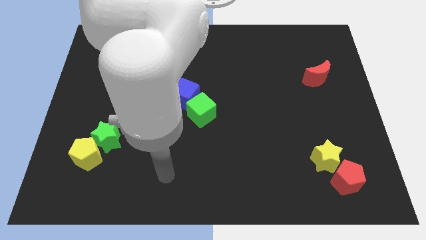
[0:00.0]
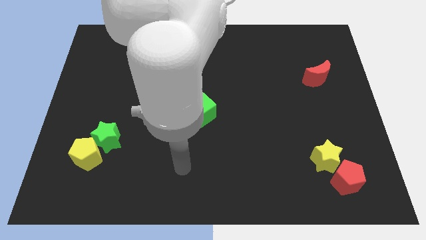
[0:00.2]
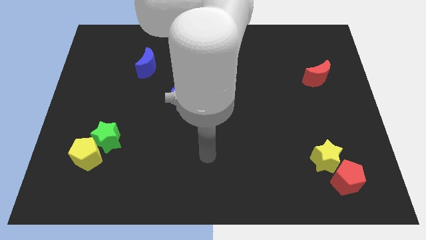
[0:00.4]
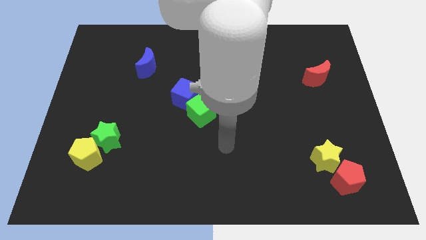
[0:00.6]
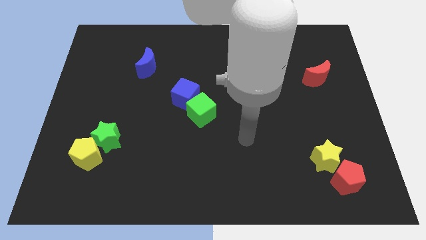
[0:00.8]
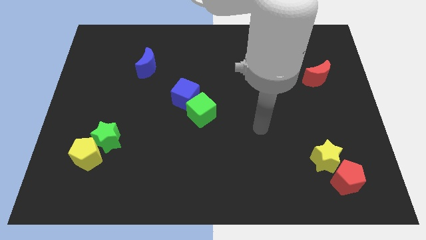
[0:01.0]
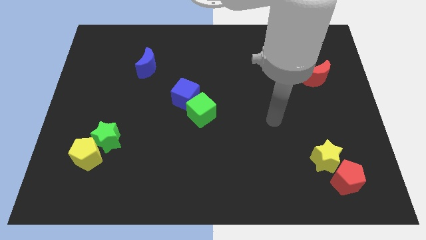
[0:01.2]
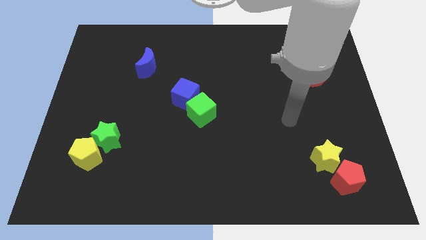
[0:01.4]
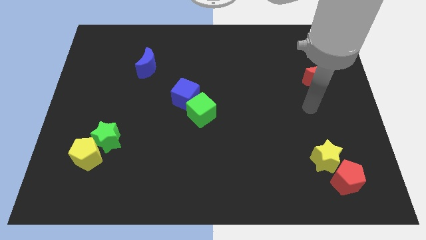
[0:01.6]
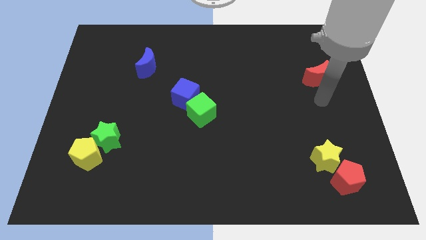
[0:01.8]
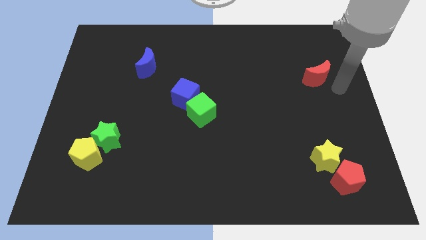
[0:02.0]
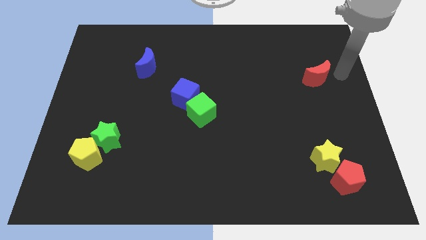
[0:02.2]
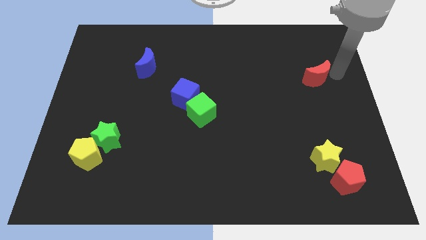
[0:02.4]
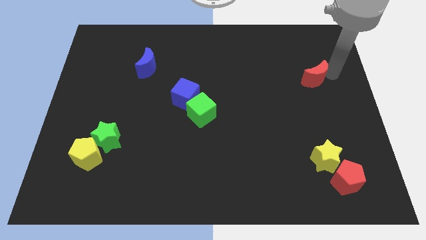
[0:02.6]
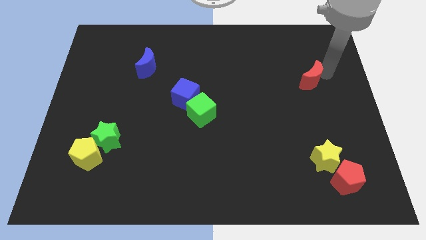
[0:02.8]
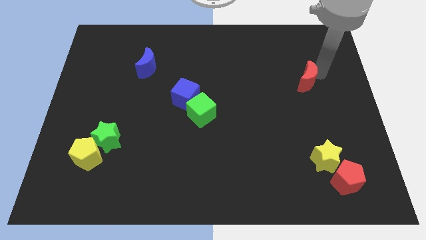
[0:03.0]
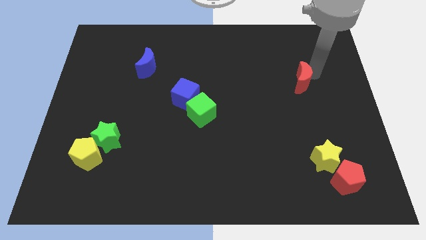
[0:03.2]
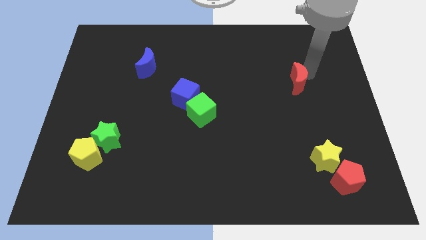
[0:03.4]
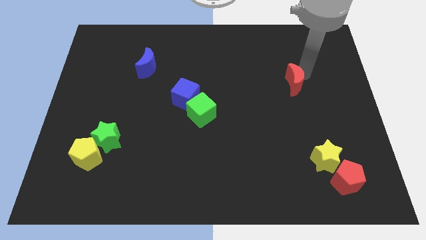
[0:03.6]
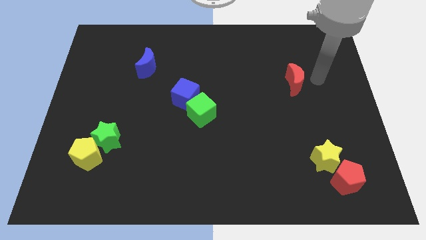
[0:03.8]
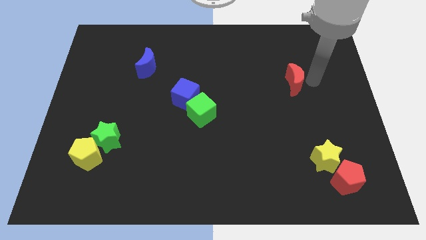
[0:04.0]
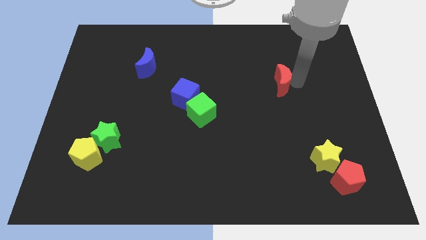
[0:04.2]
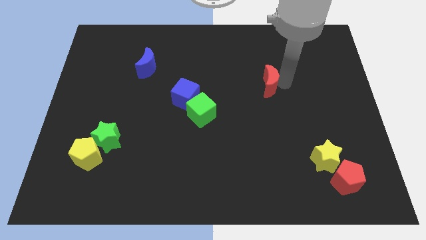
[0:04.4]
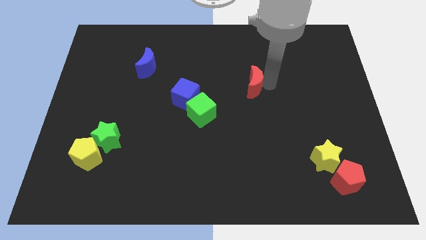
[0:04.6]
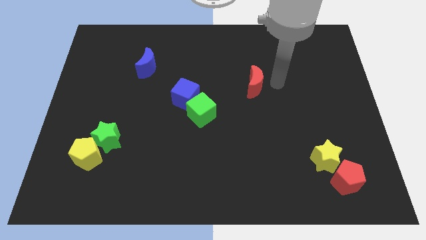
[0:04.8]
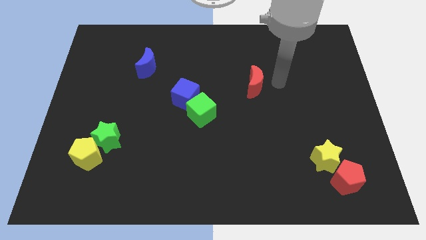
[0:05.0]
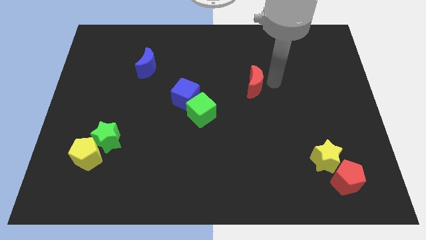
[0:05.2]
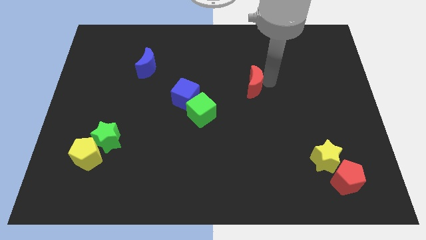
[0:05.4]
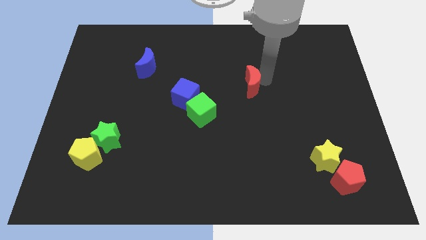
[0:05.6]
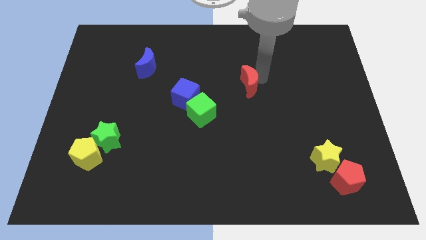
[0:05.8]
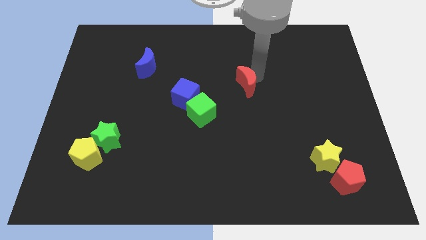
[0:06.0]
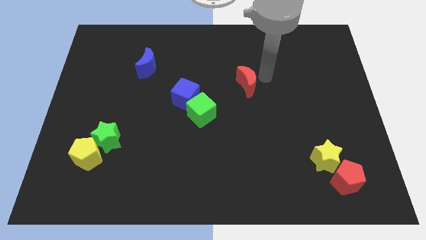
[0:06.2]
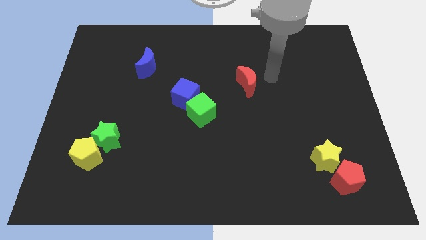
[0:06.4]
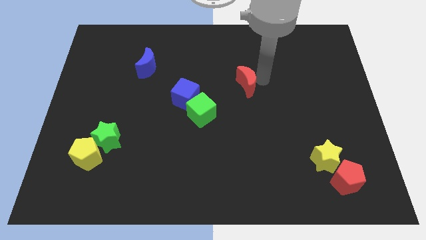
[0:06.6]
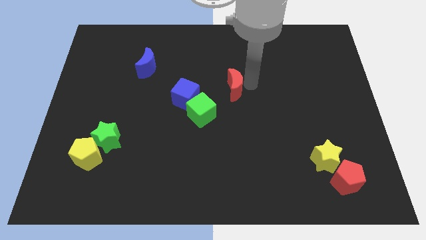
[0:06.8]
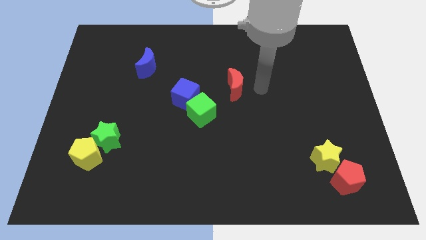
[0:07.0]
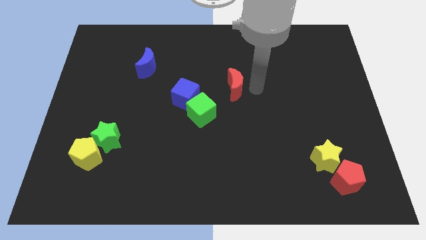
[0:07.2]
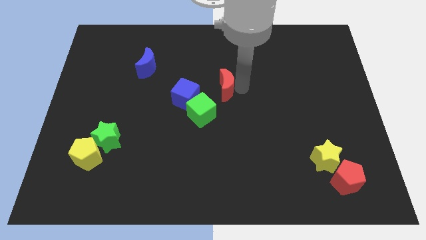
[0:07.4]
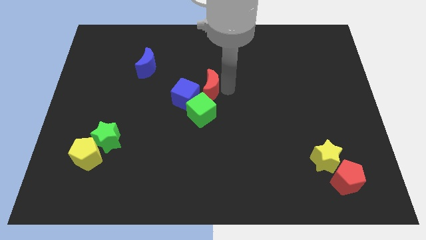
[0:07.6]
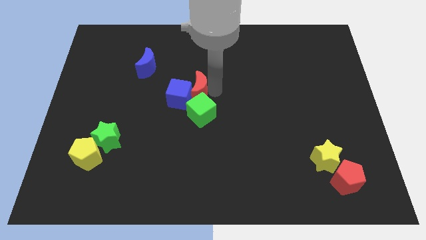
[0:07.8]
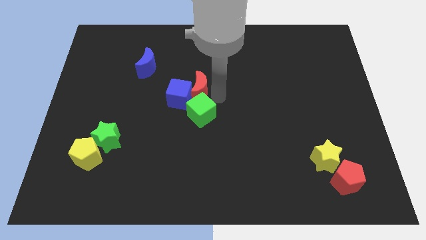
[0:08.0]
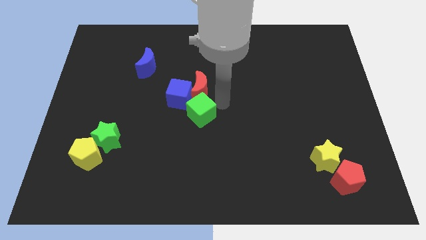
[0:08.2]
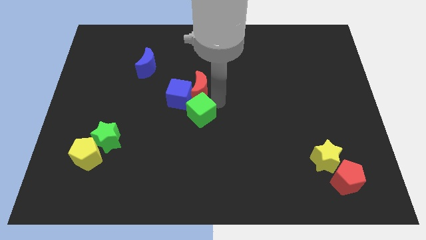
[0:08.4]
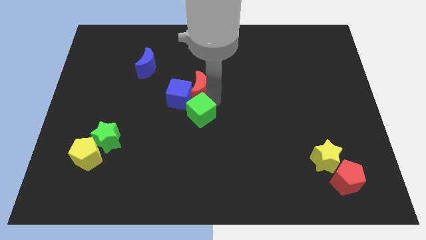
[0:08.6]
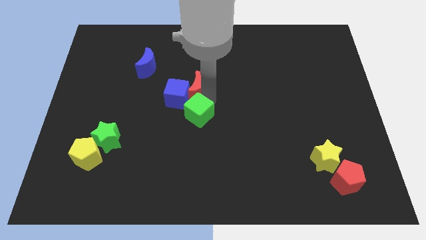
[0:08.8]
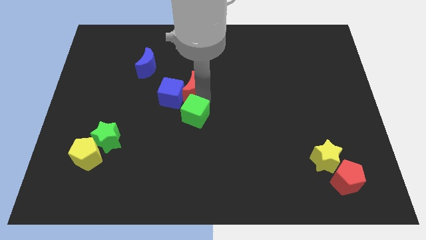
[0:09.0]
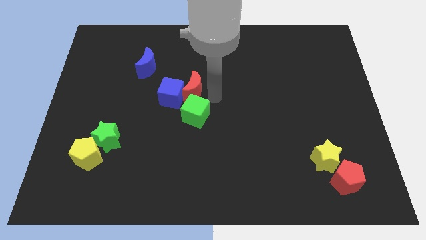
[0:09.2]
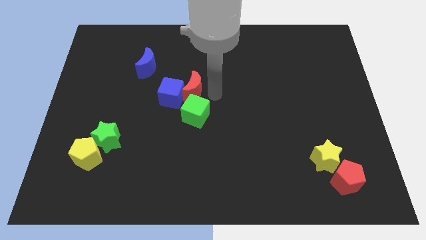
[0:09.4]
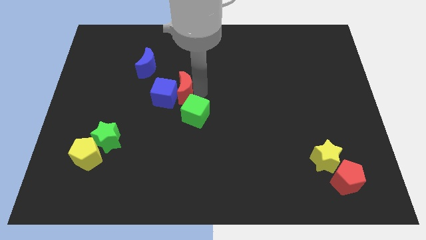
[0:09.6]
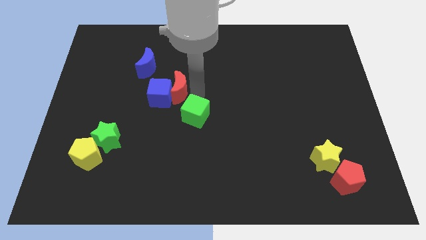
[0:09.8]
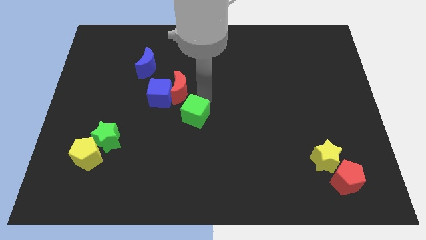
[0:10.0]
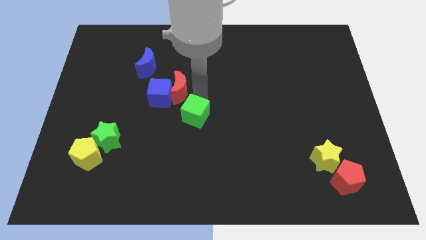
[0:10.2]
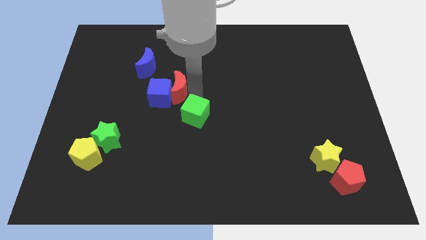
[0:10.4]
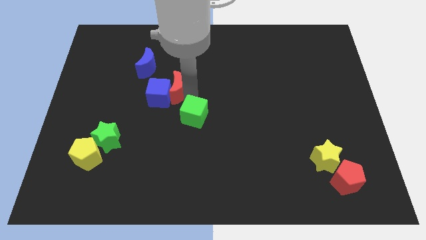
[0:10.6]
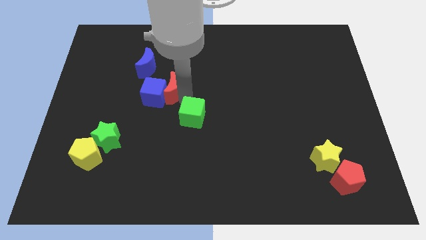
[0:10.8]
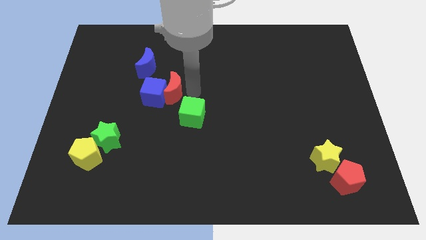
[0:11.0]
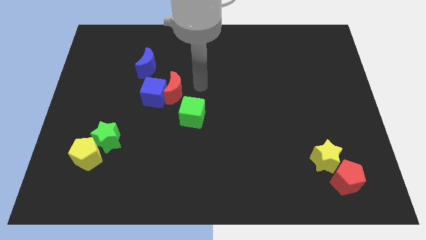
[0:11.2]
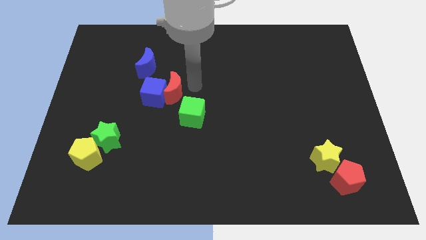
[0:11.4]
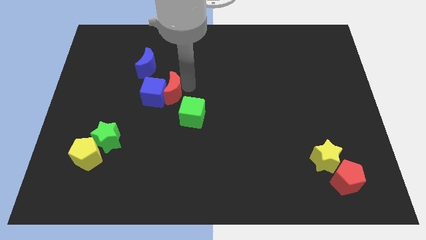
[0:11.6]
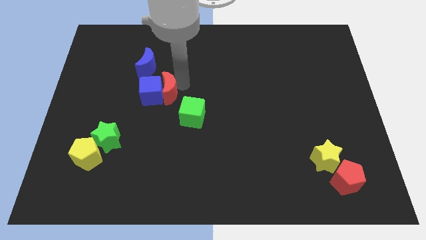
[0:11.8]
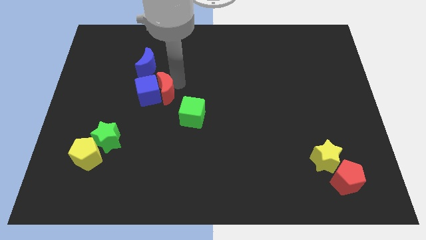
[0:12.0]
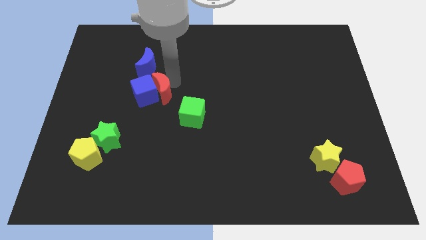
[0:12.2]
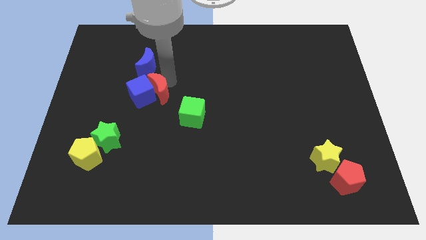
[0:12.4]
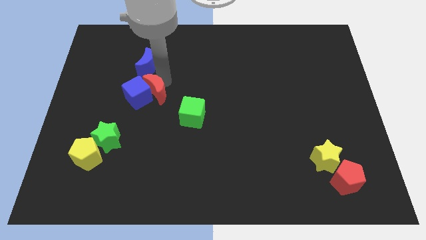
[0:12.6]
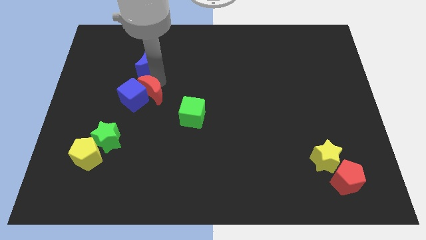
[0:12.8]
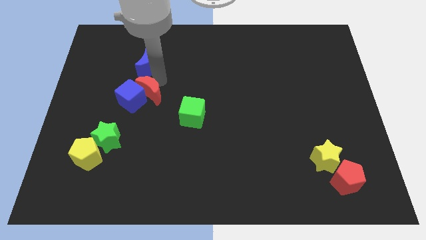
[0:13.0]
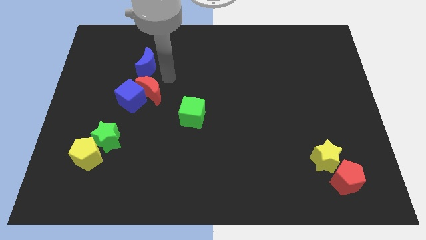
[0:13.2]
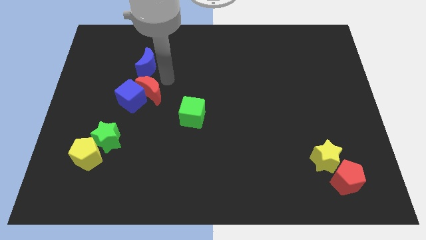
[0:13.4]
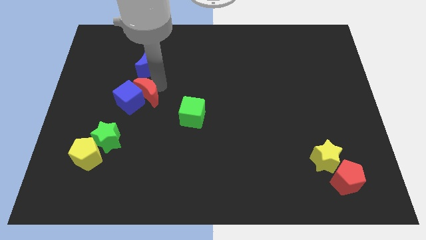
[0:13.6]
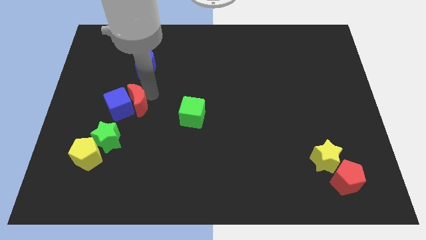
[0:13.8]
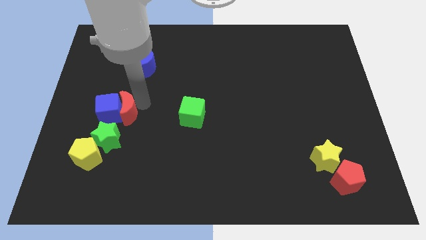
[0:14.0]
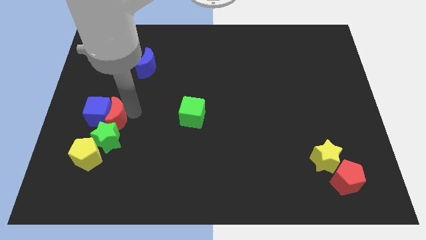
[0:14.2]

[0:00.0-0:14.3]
move the red moon above the yellow pentagon

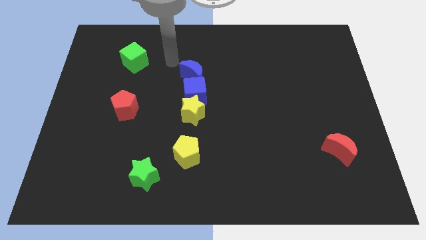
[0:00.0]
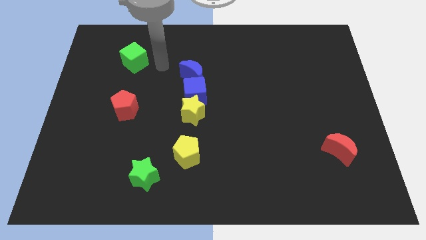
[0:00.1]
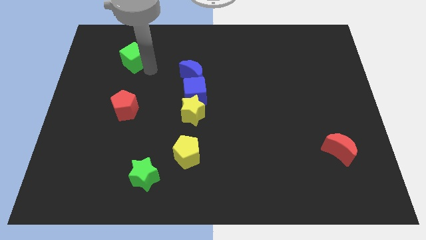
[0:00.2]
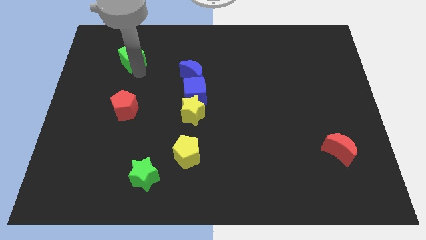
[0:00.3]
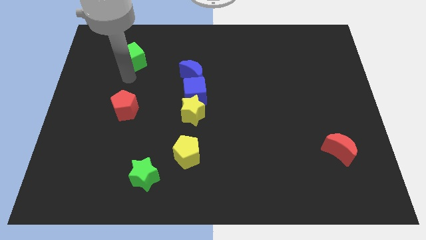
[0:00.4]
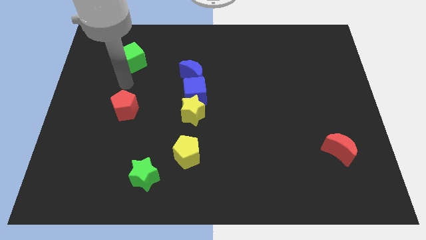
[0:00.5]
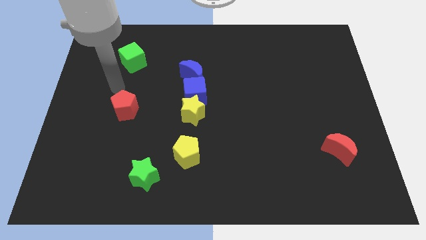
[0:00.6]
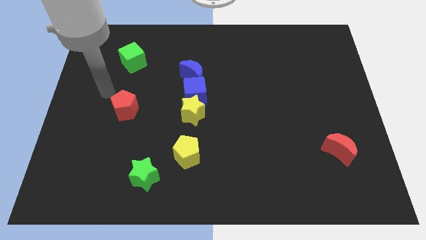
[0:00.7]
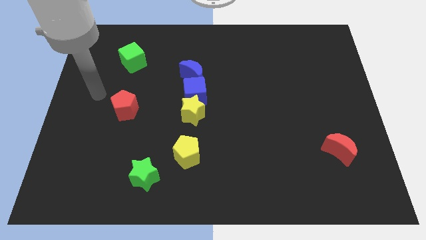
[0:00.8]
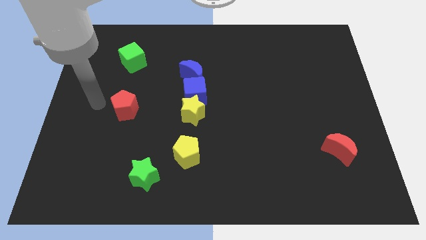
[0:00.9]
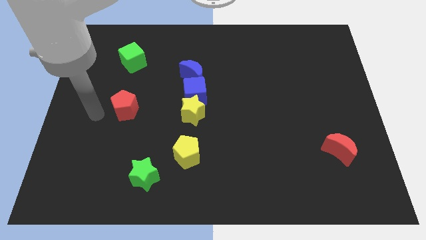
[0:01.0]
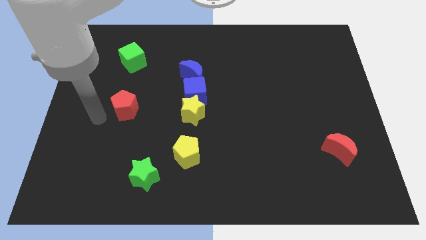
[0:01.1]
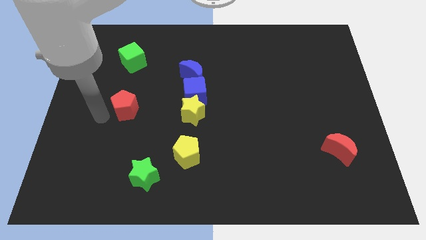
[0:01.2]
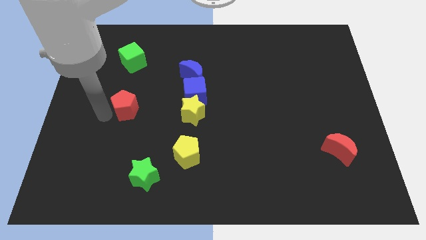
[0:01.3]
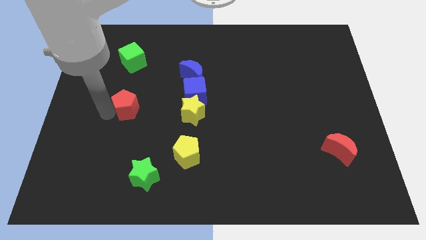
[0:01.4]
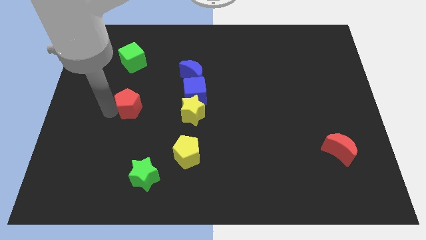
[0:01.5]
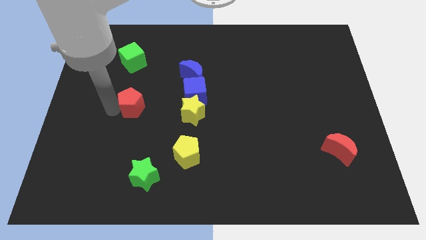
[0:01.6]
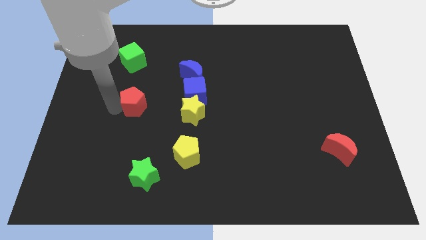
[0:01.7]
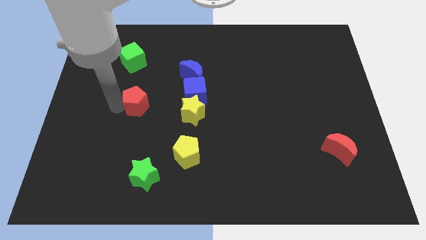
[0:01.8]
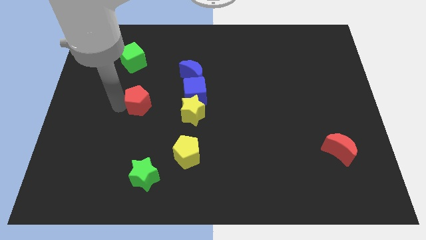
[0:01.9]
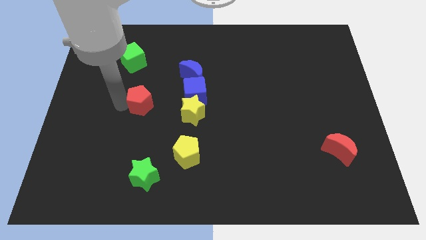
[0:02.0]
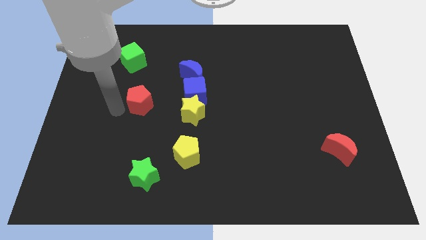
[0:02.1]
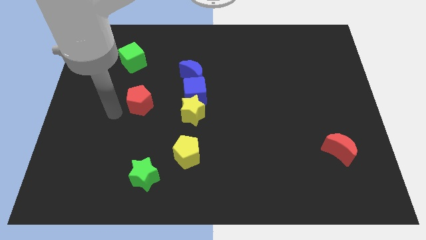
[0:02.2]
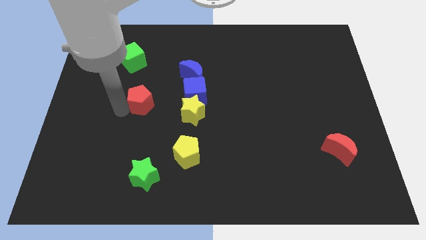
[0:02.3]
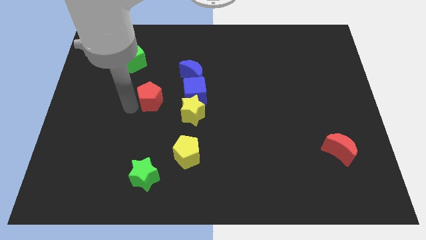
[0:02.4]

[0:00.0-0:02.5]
put the red pentagon to the bottom left of the blue moon
